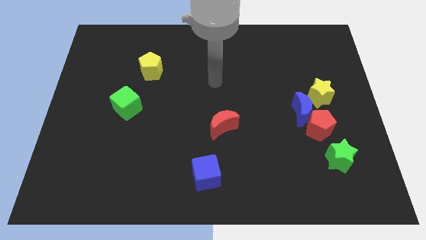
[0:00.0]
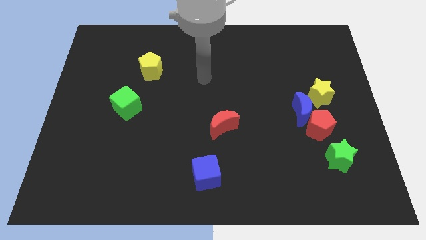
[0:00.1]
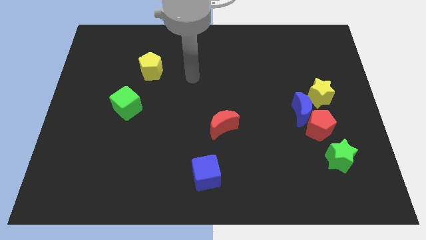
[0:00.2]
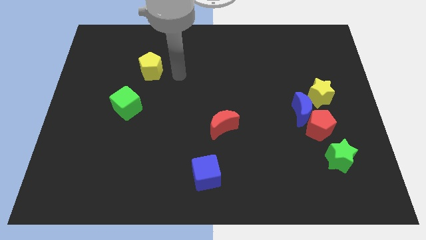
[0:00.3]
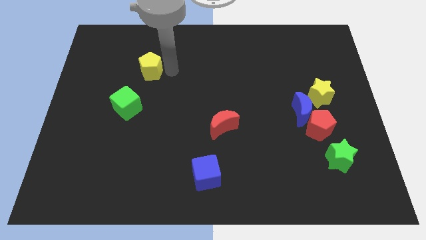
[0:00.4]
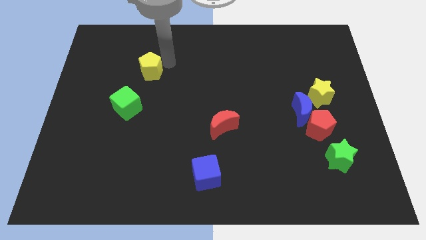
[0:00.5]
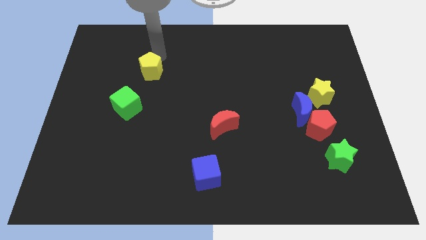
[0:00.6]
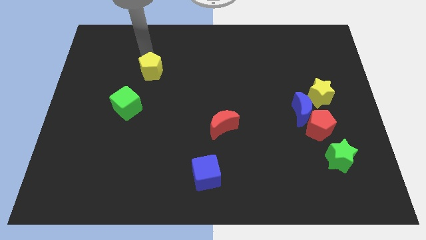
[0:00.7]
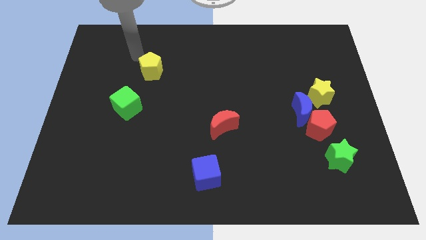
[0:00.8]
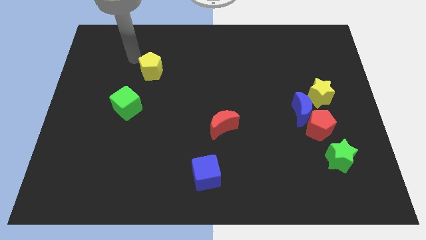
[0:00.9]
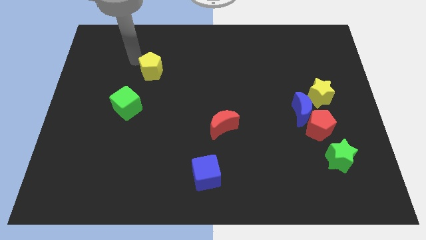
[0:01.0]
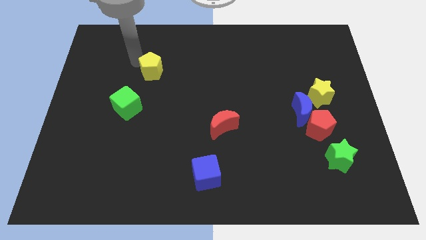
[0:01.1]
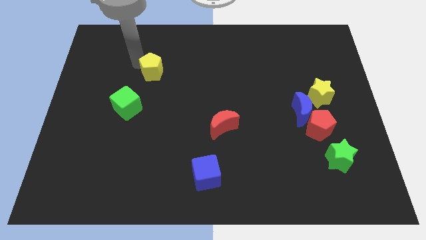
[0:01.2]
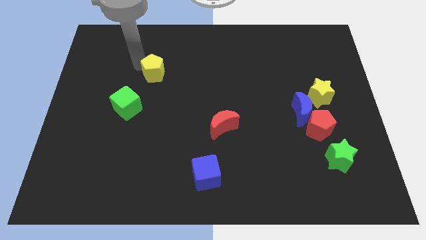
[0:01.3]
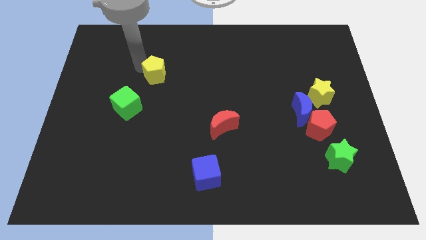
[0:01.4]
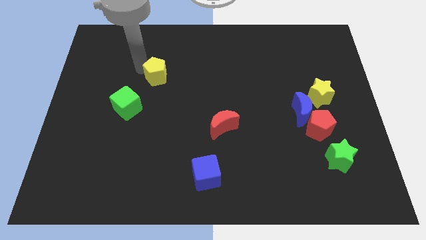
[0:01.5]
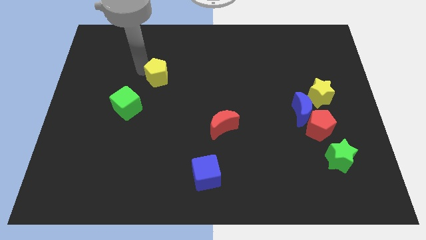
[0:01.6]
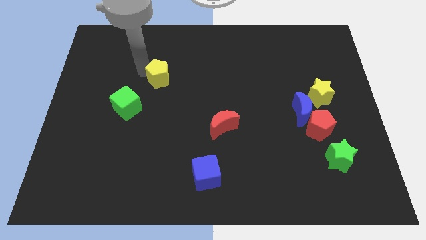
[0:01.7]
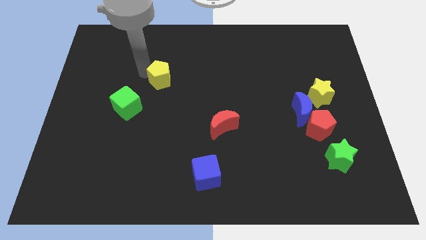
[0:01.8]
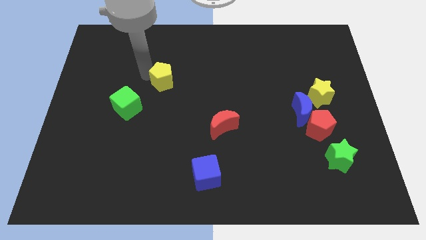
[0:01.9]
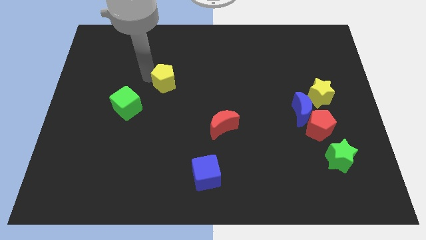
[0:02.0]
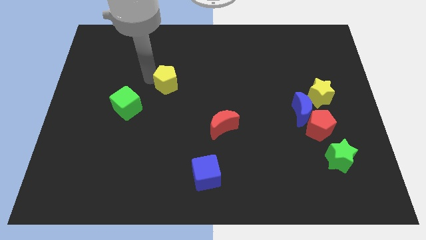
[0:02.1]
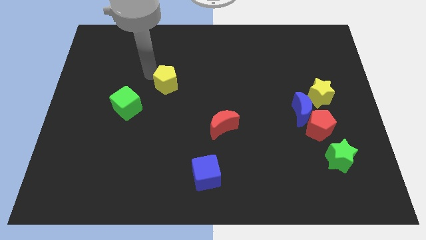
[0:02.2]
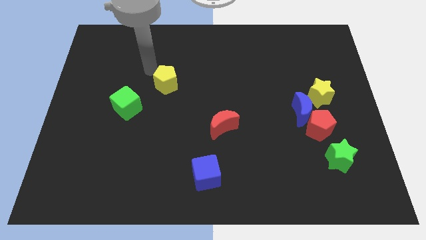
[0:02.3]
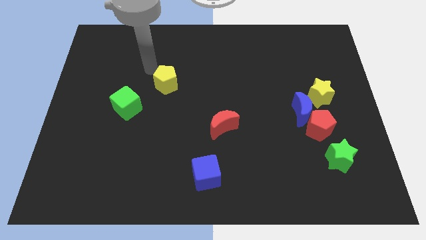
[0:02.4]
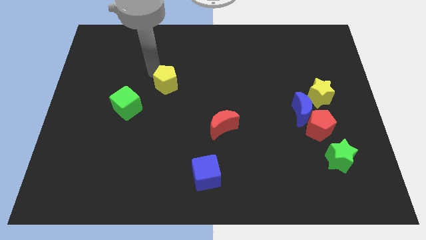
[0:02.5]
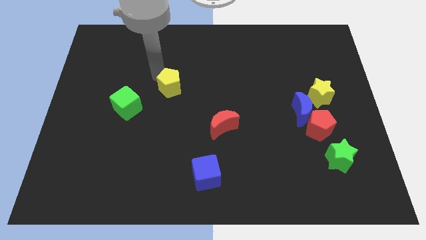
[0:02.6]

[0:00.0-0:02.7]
slide the yellow pentagon somewhat downwards and to the right diagonally

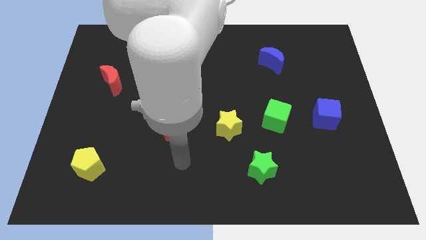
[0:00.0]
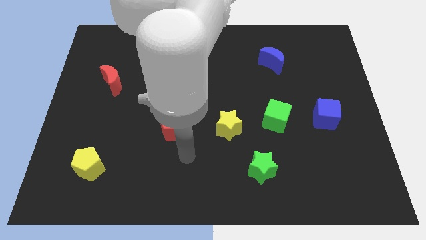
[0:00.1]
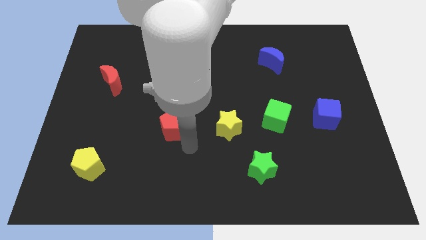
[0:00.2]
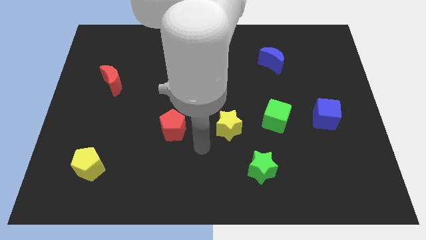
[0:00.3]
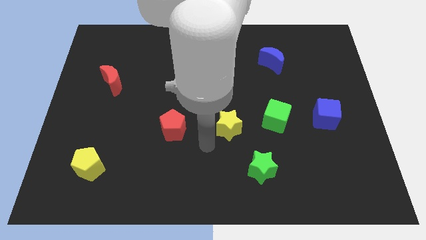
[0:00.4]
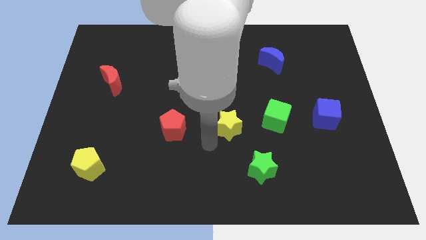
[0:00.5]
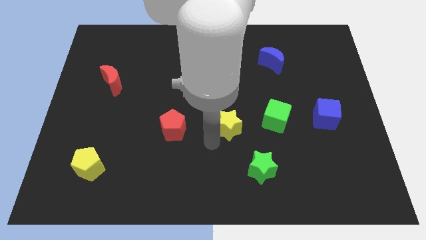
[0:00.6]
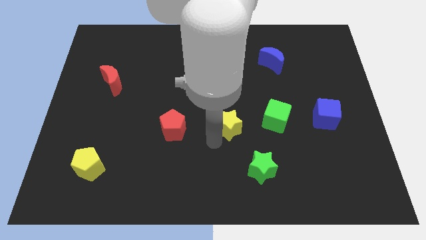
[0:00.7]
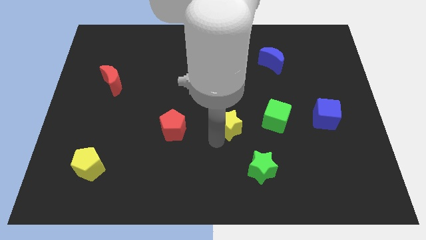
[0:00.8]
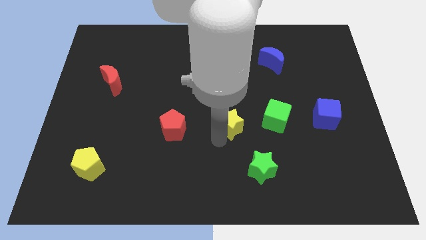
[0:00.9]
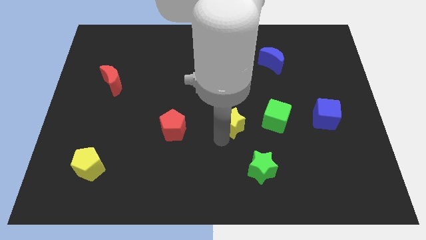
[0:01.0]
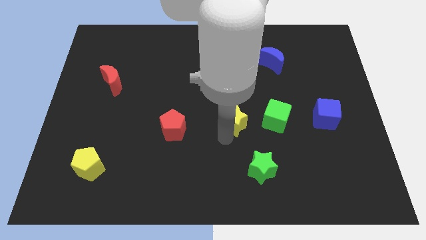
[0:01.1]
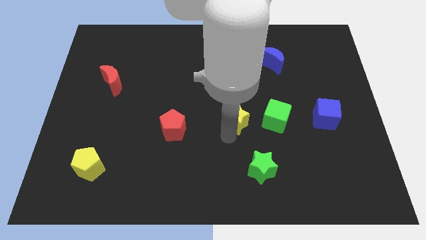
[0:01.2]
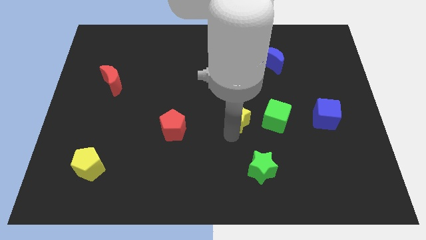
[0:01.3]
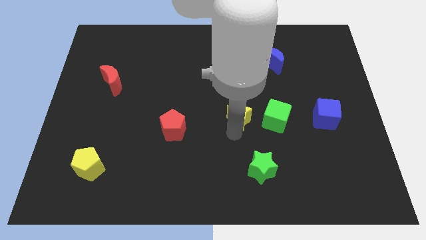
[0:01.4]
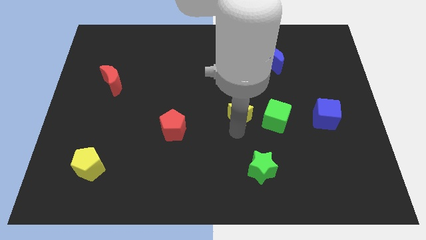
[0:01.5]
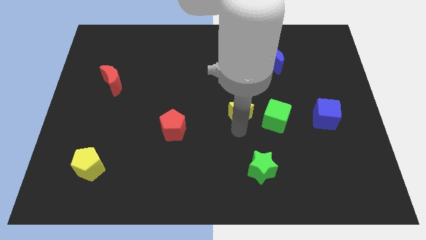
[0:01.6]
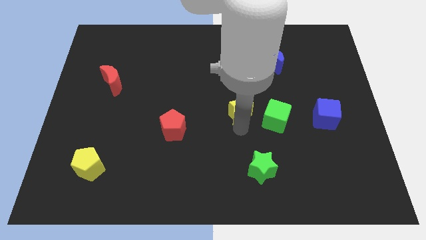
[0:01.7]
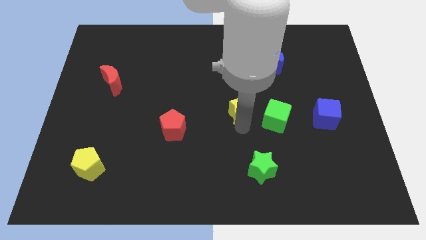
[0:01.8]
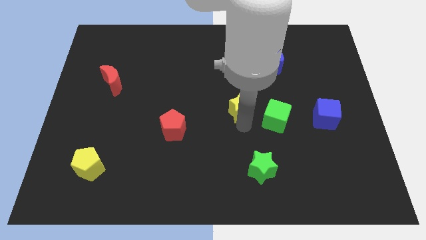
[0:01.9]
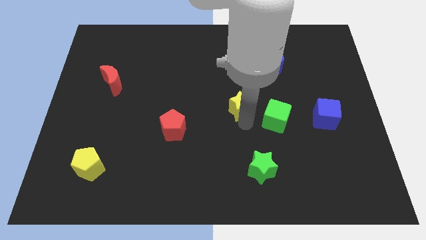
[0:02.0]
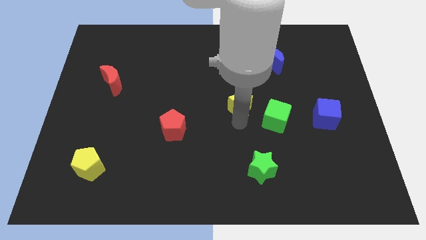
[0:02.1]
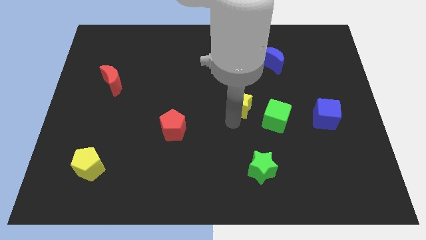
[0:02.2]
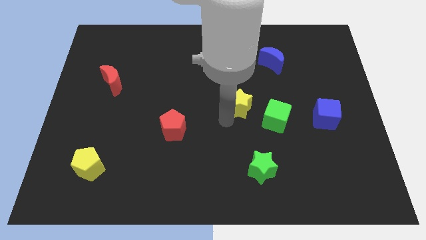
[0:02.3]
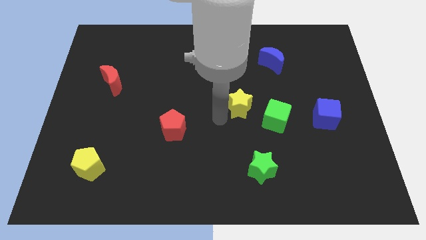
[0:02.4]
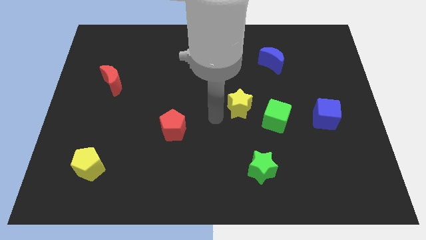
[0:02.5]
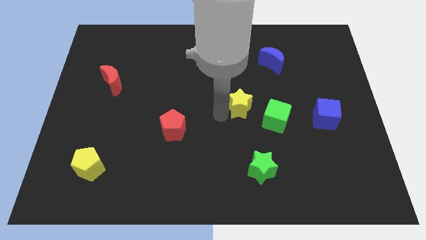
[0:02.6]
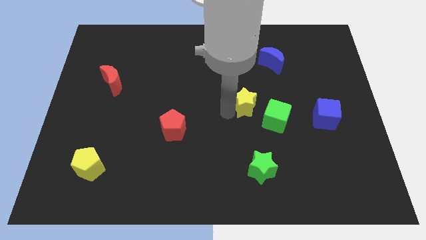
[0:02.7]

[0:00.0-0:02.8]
move the yellow star up and then right a little bit

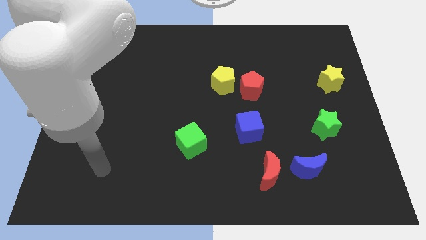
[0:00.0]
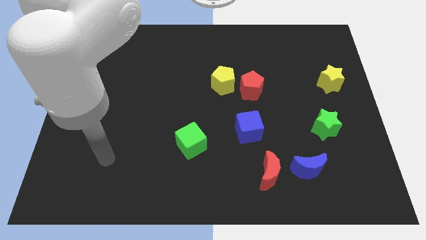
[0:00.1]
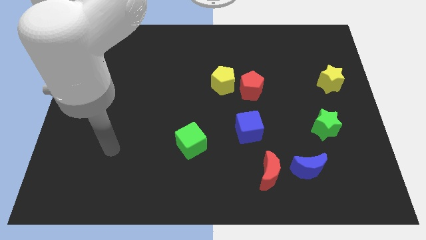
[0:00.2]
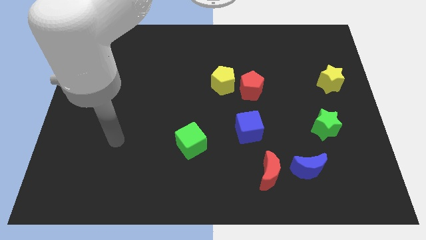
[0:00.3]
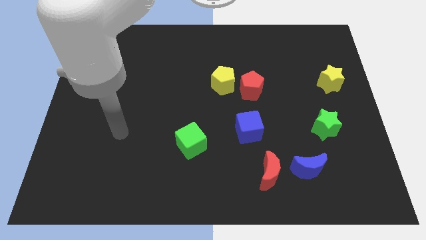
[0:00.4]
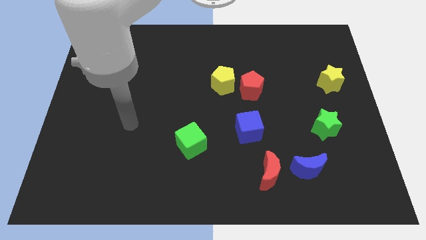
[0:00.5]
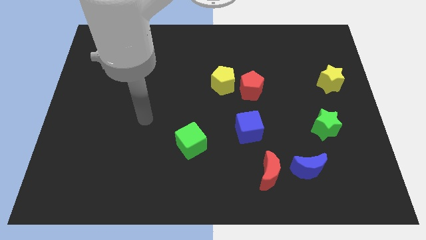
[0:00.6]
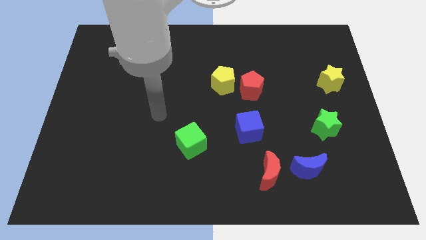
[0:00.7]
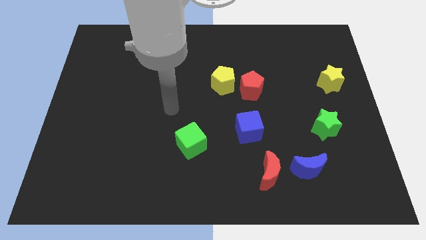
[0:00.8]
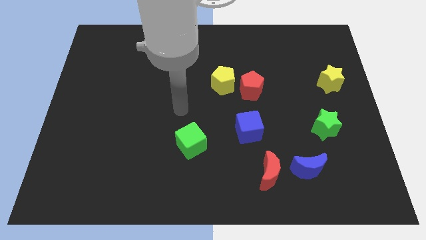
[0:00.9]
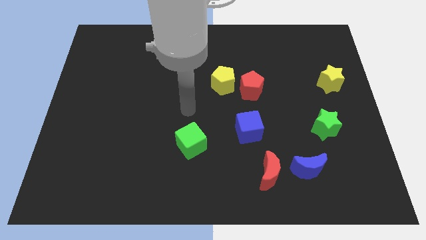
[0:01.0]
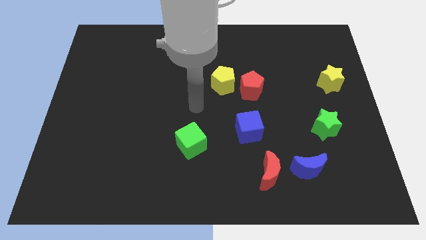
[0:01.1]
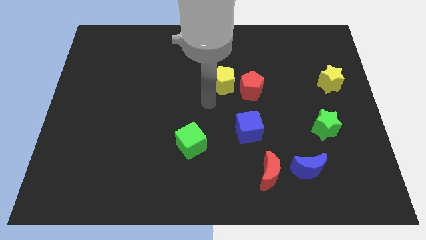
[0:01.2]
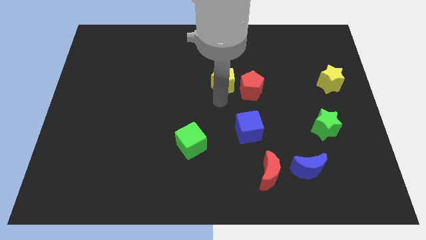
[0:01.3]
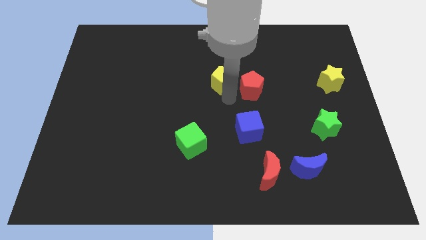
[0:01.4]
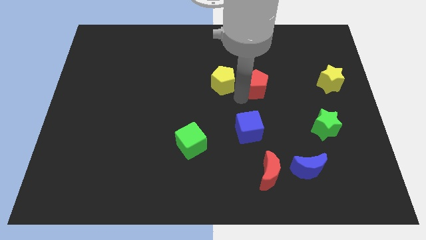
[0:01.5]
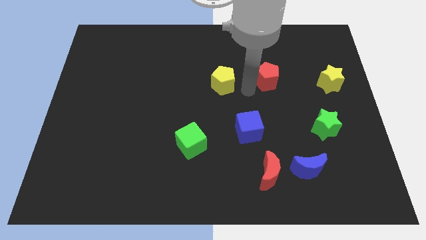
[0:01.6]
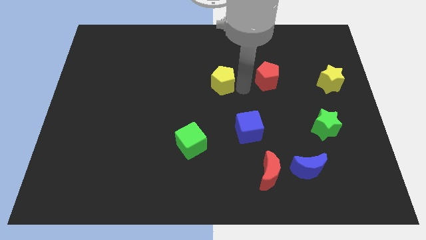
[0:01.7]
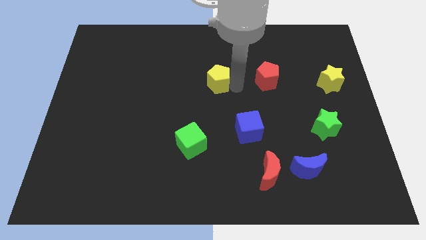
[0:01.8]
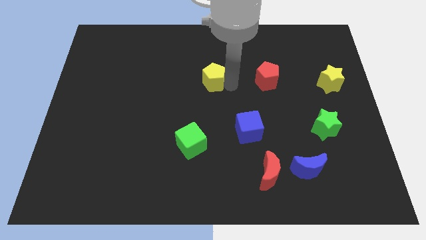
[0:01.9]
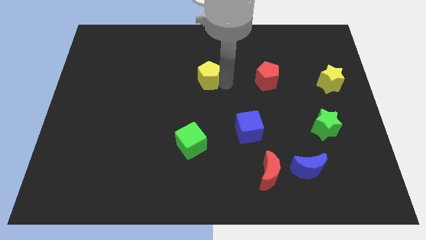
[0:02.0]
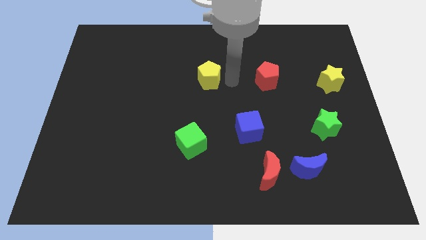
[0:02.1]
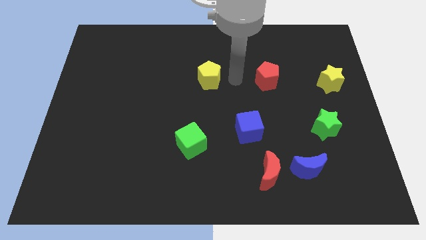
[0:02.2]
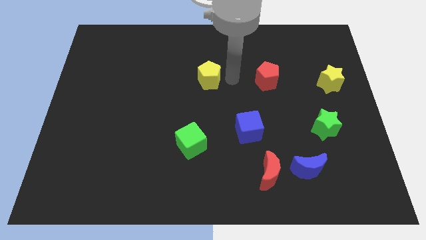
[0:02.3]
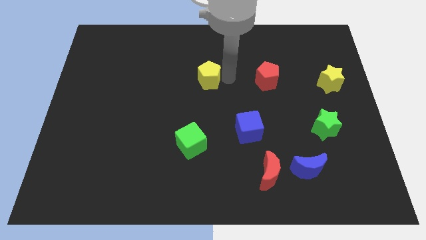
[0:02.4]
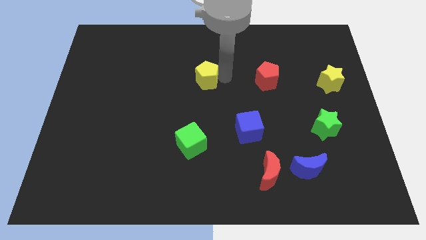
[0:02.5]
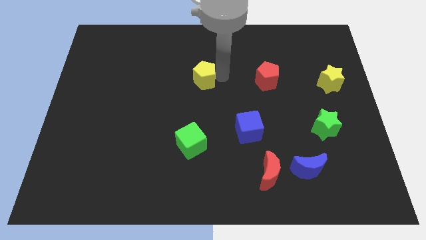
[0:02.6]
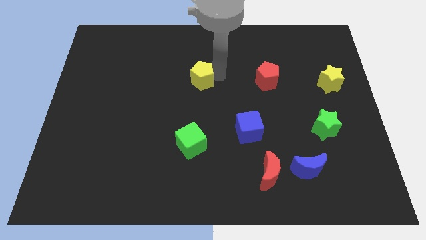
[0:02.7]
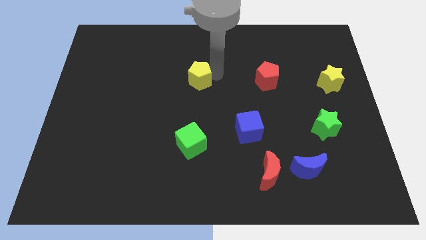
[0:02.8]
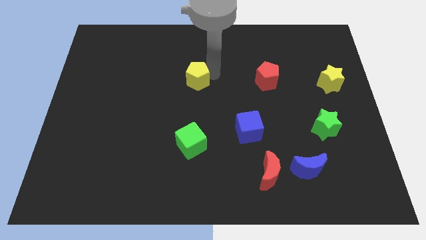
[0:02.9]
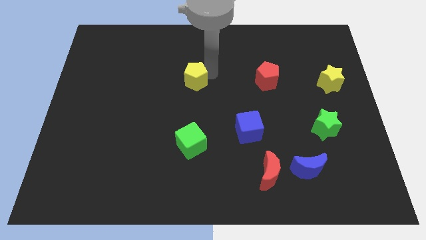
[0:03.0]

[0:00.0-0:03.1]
move the yellow pentagon left a little bit
